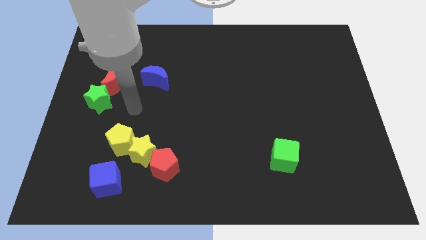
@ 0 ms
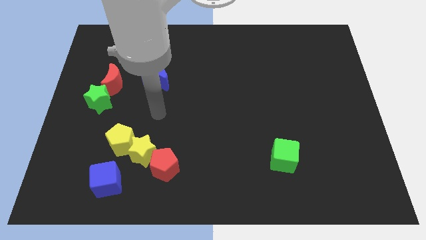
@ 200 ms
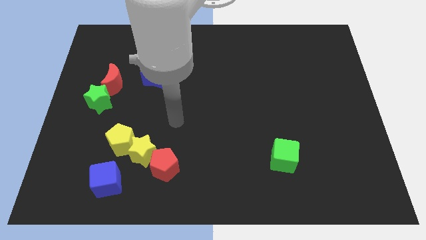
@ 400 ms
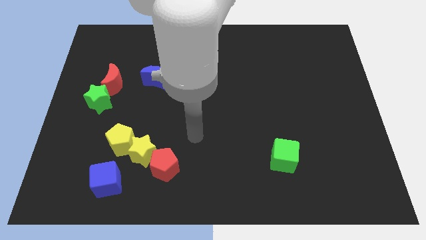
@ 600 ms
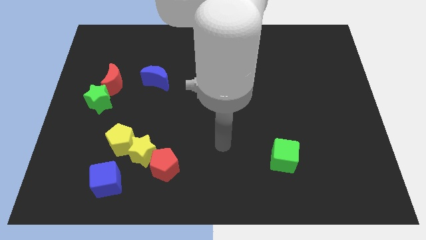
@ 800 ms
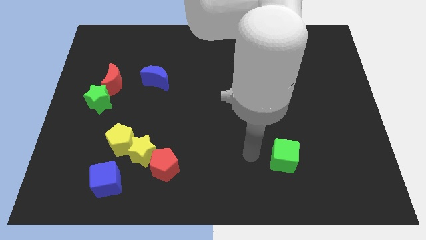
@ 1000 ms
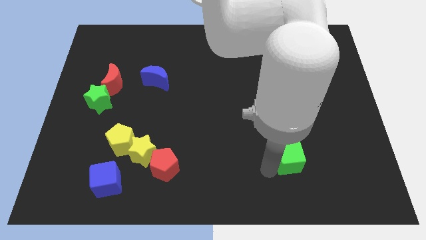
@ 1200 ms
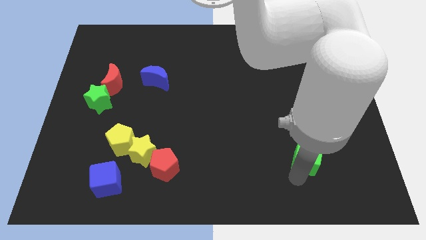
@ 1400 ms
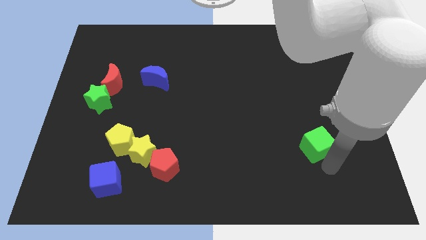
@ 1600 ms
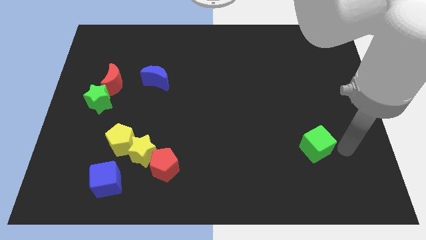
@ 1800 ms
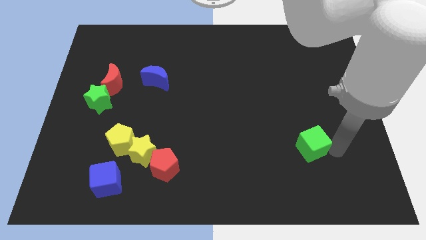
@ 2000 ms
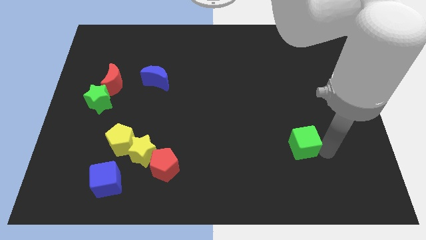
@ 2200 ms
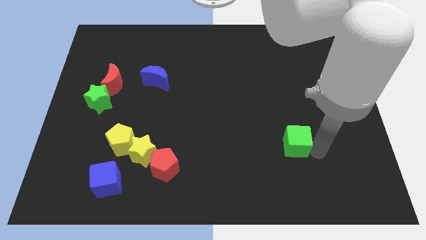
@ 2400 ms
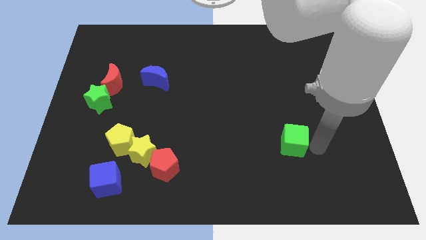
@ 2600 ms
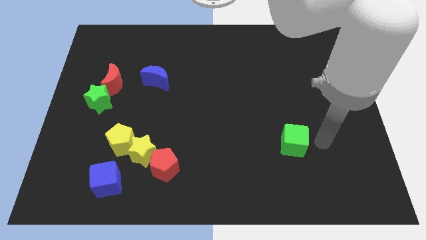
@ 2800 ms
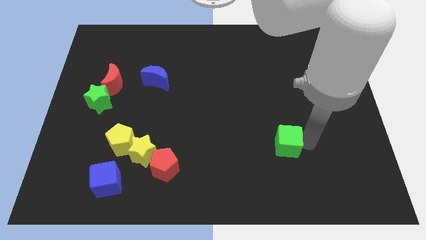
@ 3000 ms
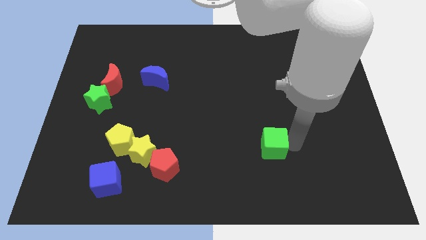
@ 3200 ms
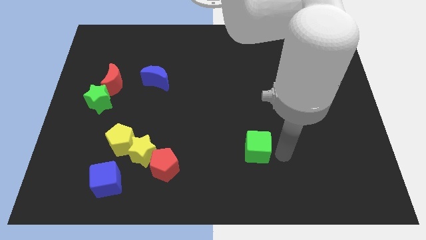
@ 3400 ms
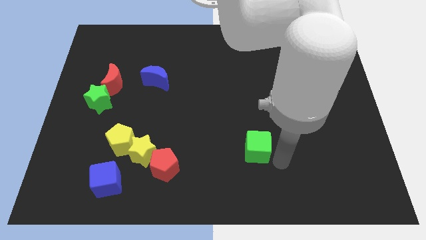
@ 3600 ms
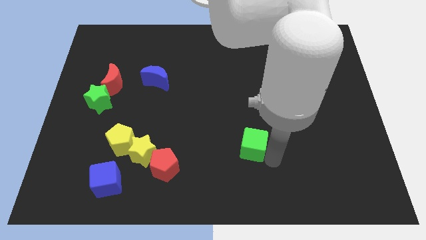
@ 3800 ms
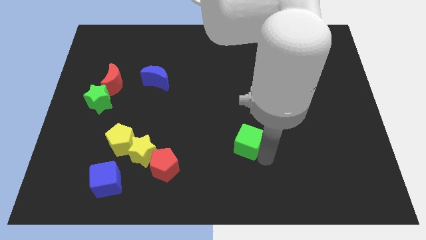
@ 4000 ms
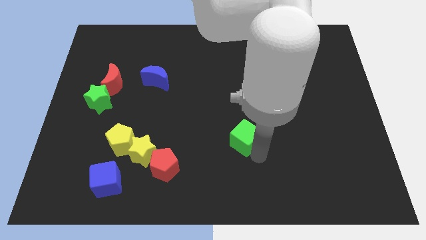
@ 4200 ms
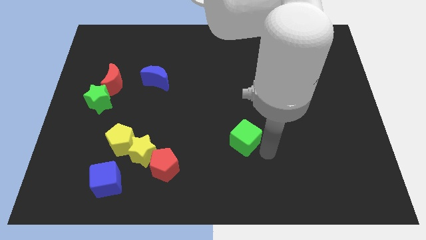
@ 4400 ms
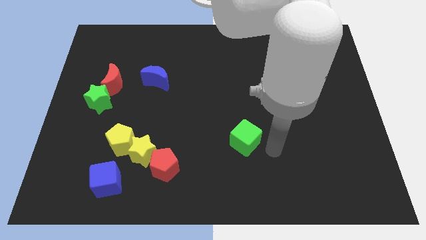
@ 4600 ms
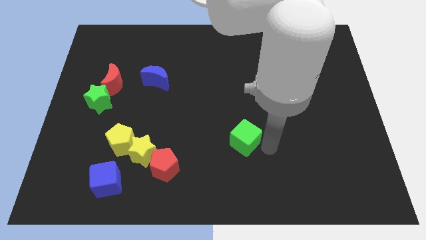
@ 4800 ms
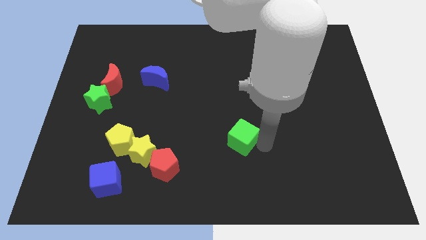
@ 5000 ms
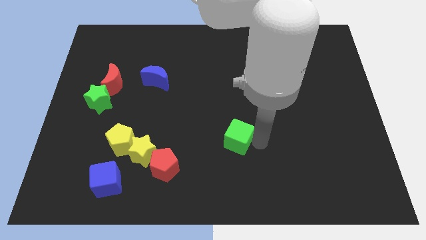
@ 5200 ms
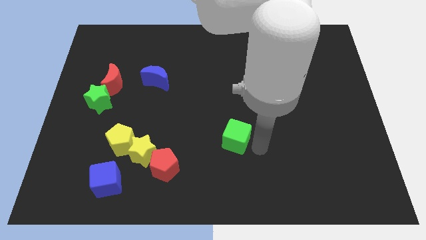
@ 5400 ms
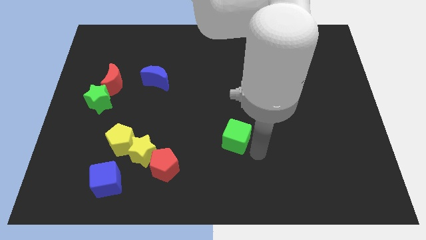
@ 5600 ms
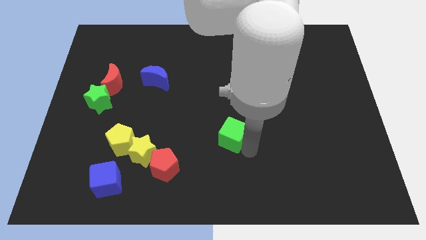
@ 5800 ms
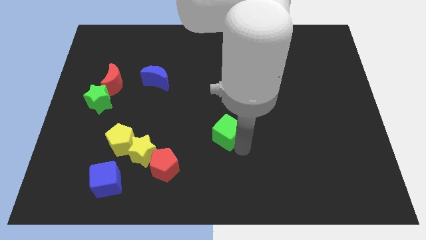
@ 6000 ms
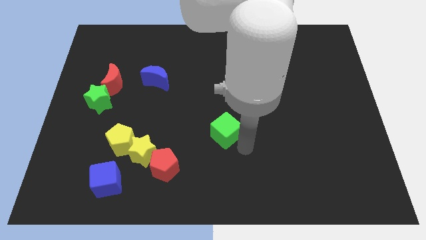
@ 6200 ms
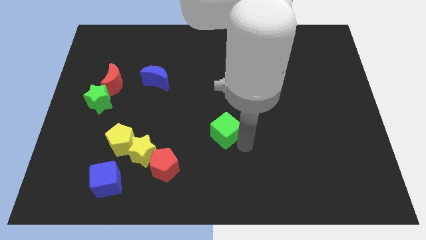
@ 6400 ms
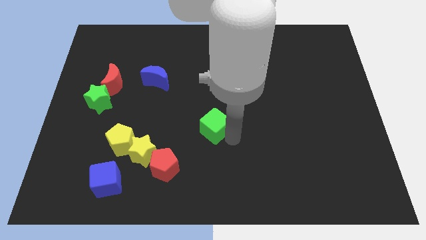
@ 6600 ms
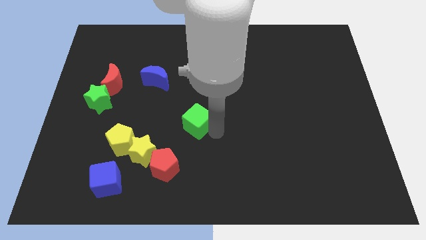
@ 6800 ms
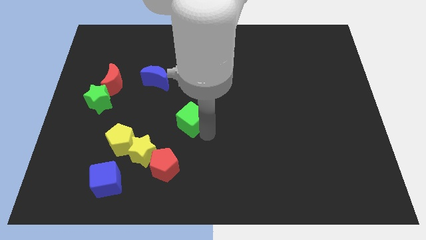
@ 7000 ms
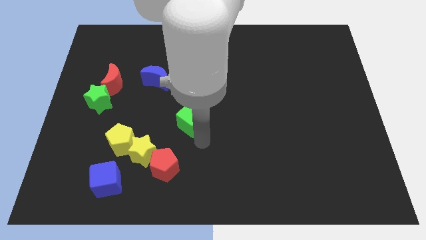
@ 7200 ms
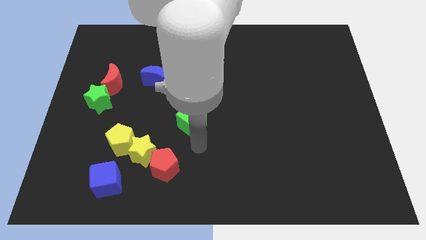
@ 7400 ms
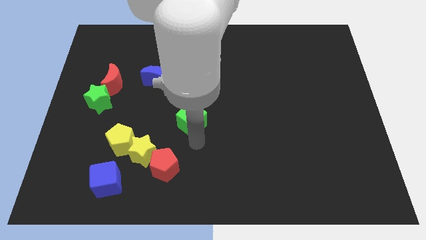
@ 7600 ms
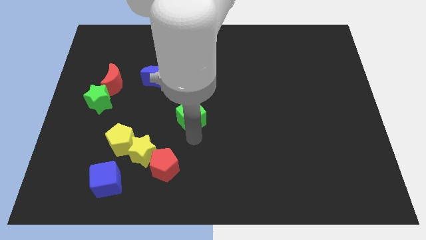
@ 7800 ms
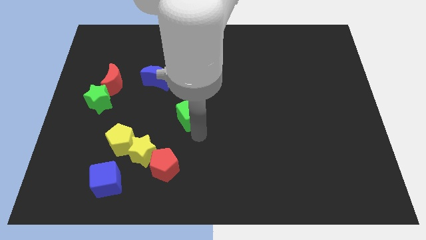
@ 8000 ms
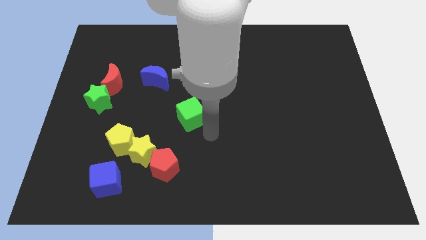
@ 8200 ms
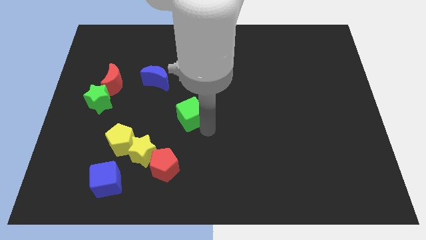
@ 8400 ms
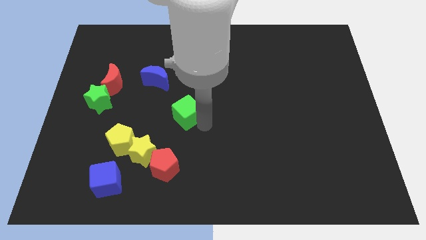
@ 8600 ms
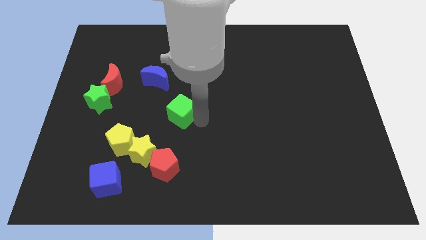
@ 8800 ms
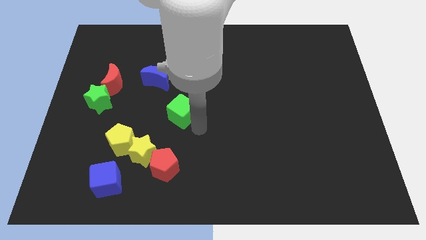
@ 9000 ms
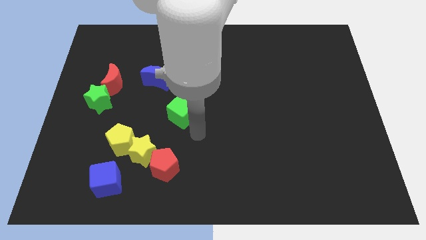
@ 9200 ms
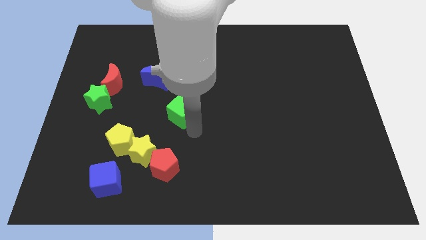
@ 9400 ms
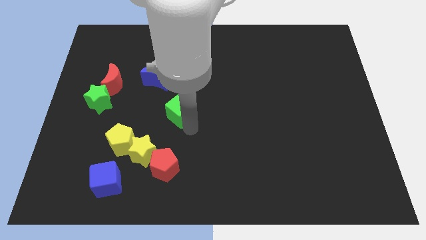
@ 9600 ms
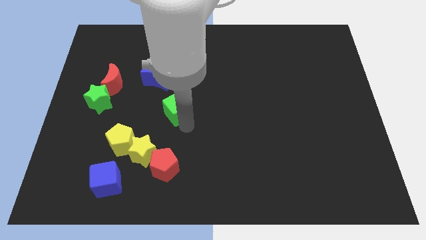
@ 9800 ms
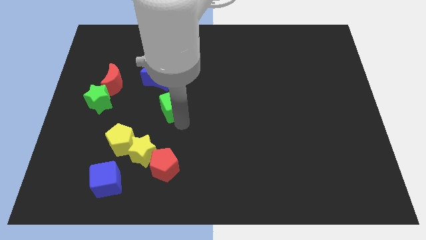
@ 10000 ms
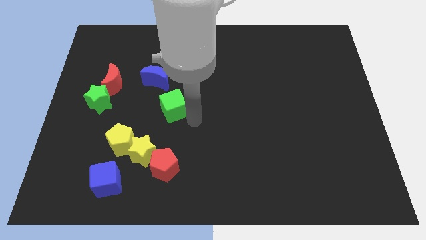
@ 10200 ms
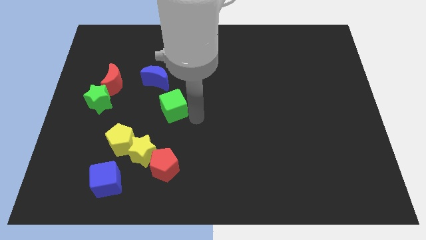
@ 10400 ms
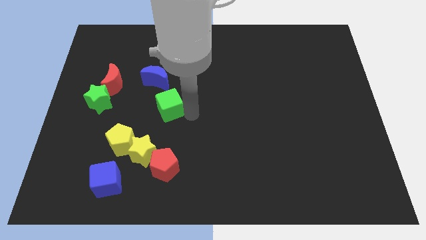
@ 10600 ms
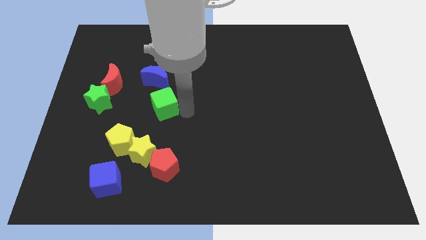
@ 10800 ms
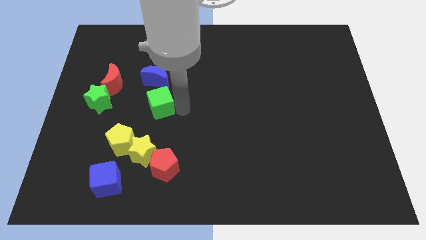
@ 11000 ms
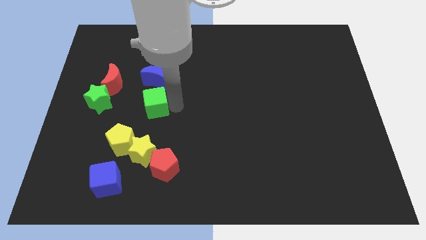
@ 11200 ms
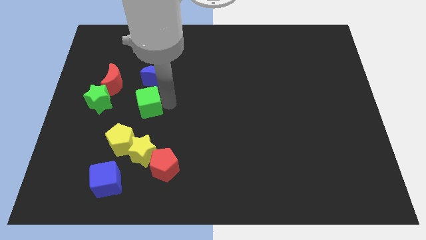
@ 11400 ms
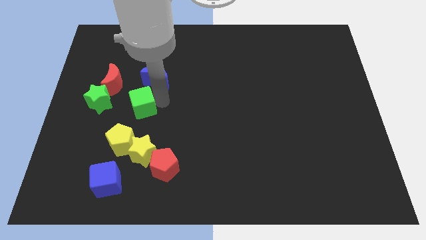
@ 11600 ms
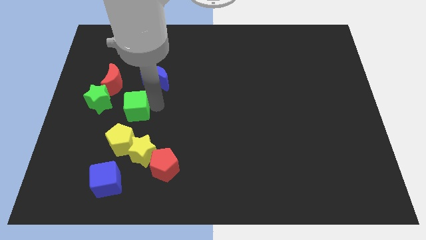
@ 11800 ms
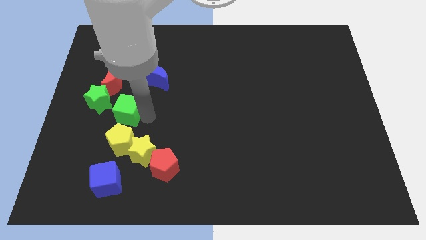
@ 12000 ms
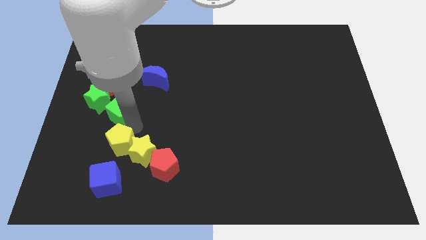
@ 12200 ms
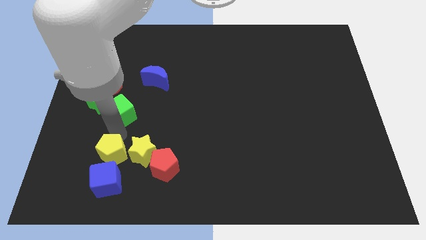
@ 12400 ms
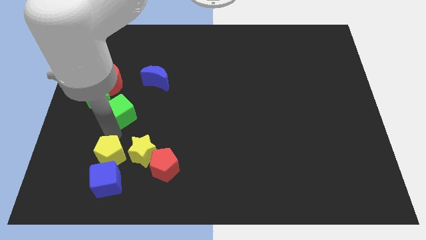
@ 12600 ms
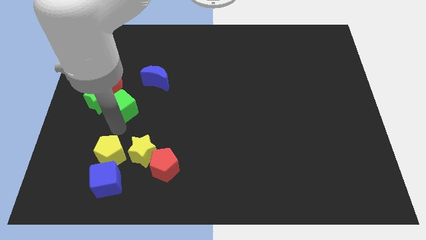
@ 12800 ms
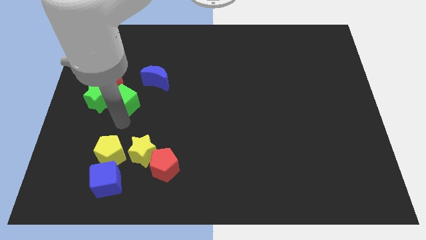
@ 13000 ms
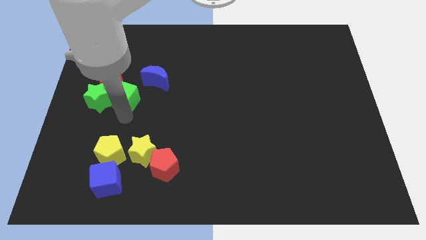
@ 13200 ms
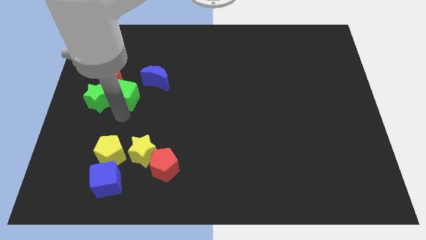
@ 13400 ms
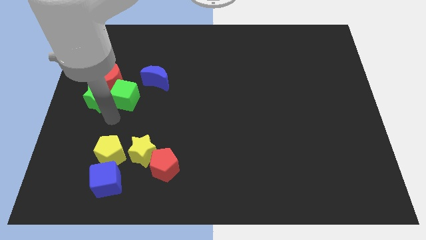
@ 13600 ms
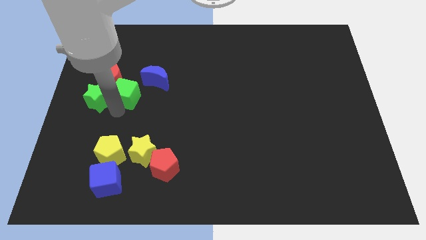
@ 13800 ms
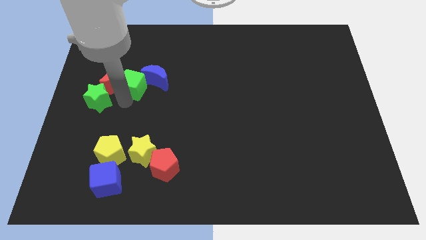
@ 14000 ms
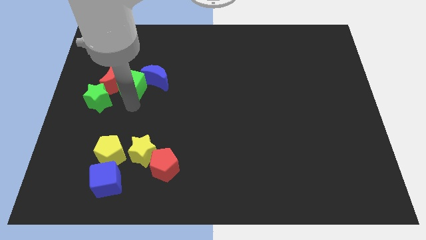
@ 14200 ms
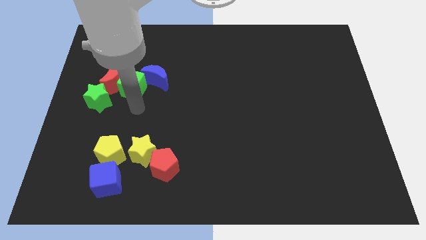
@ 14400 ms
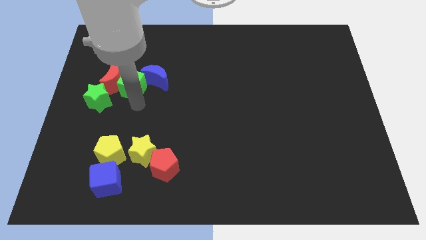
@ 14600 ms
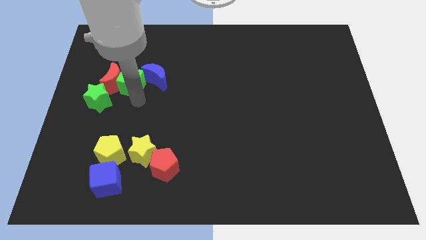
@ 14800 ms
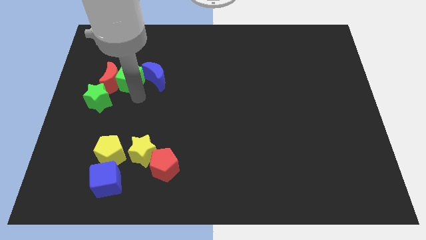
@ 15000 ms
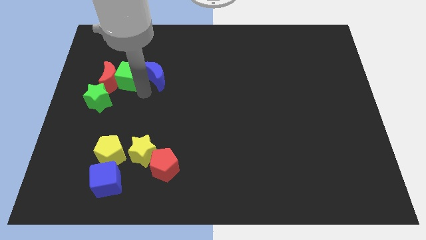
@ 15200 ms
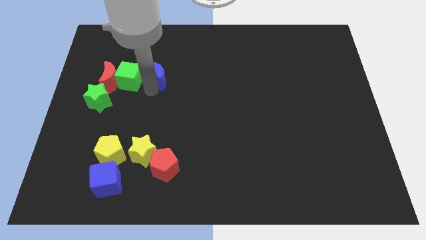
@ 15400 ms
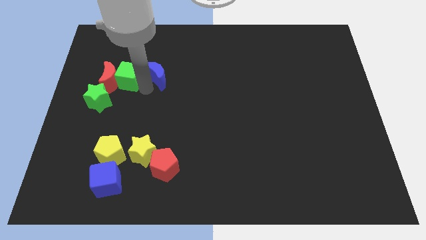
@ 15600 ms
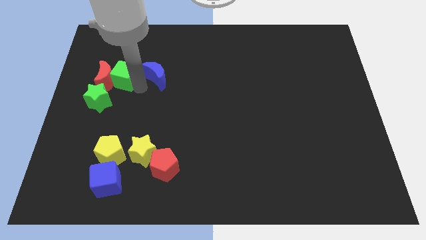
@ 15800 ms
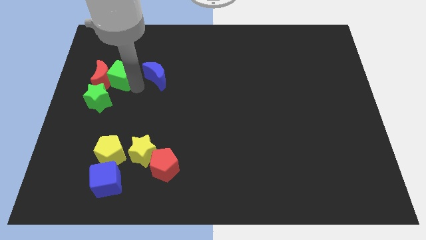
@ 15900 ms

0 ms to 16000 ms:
move the green cube to the top side of the green star
